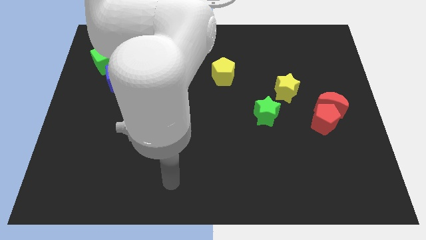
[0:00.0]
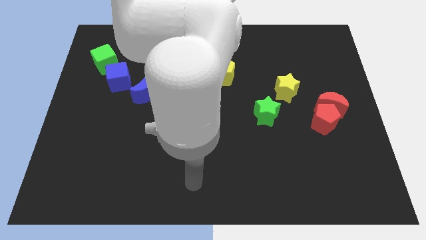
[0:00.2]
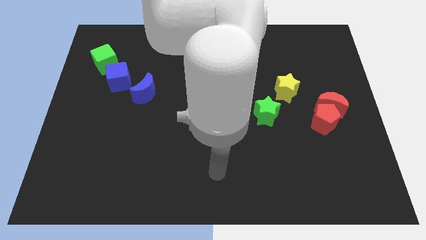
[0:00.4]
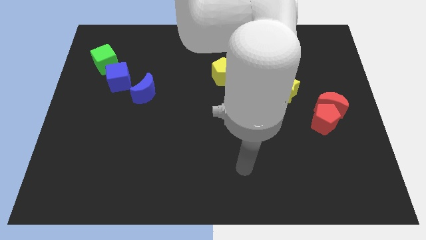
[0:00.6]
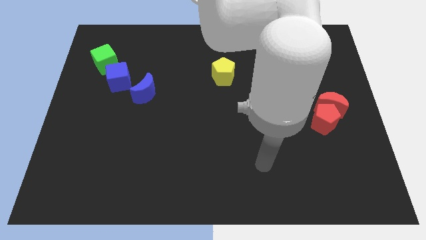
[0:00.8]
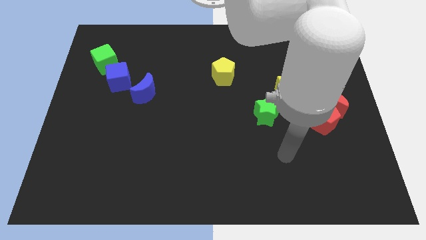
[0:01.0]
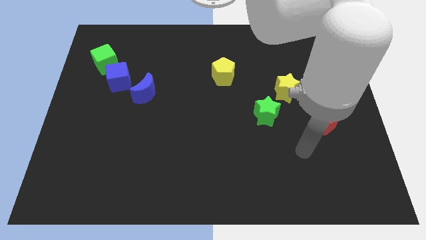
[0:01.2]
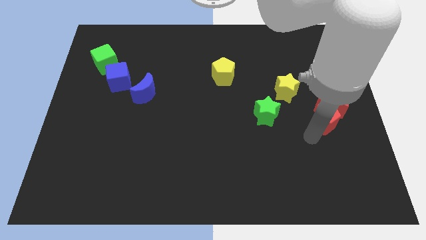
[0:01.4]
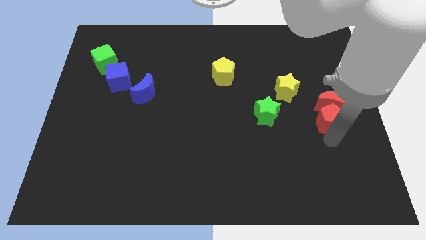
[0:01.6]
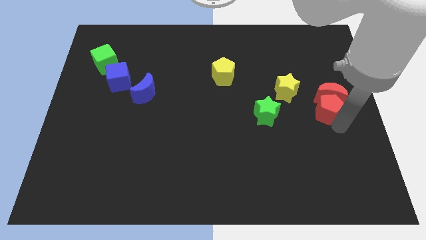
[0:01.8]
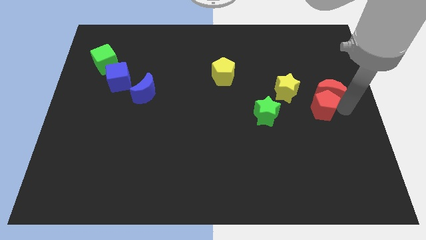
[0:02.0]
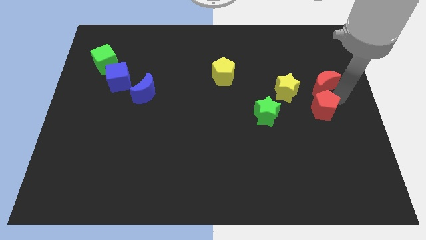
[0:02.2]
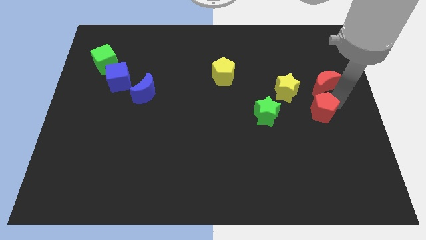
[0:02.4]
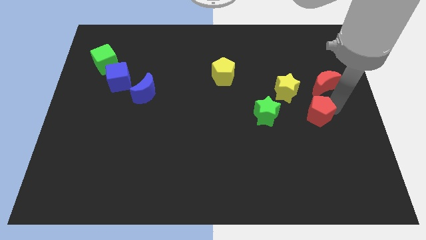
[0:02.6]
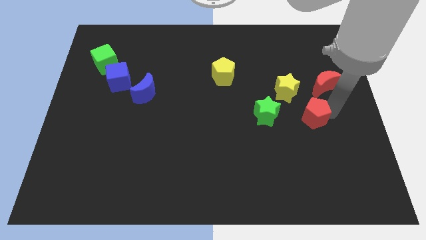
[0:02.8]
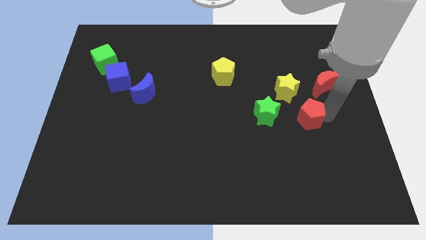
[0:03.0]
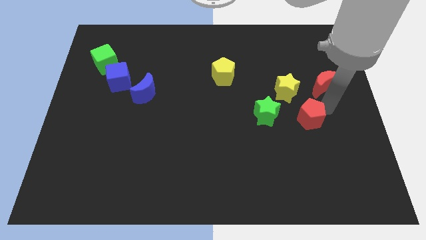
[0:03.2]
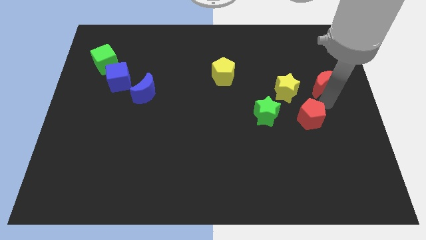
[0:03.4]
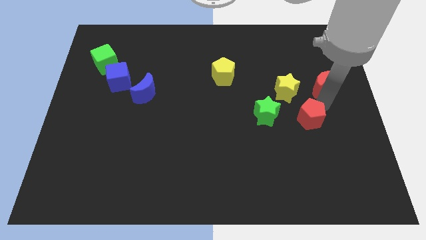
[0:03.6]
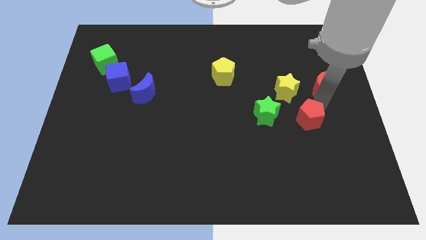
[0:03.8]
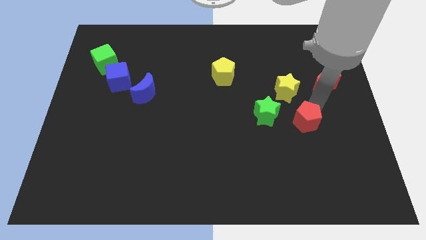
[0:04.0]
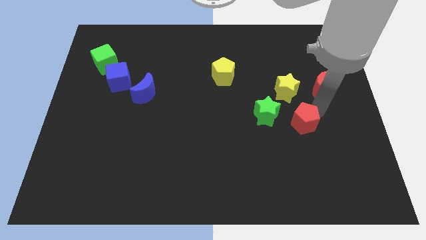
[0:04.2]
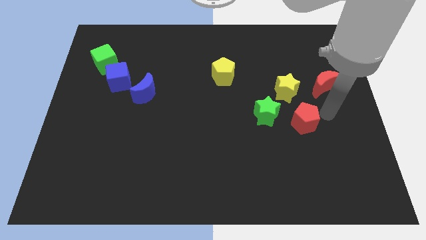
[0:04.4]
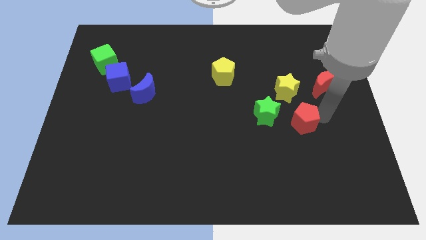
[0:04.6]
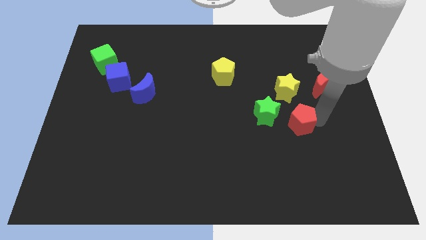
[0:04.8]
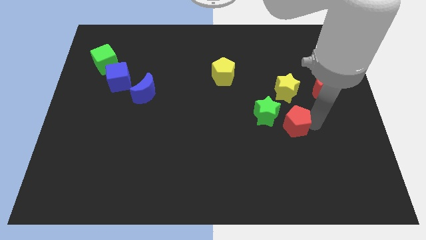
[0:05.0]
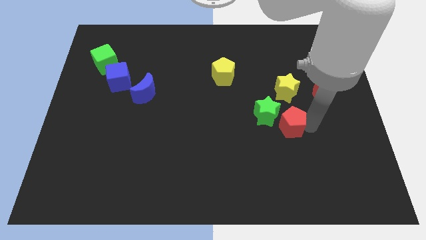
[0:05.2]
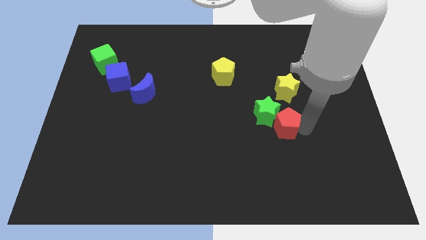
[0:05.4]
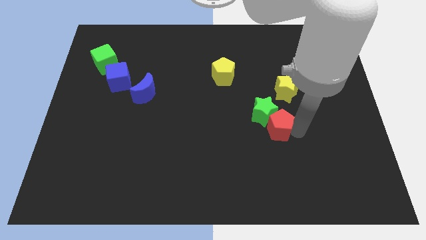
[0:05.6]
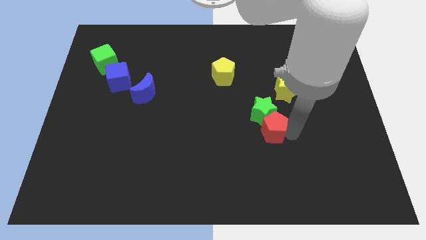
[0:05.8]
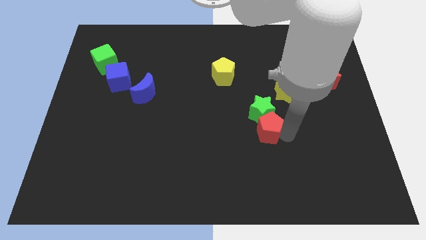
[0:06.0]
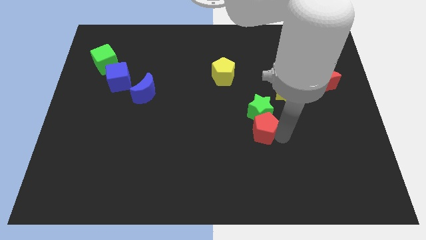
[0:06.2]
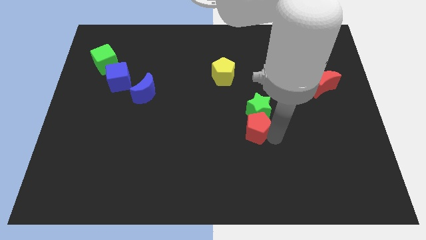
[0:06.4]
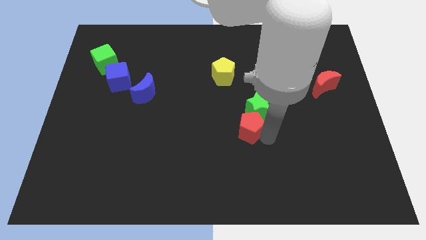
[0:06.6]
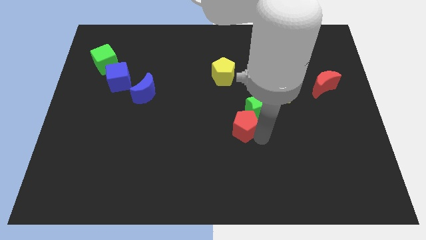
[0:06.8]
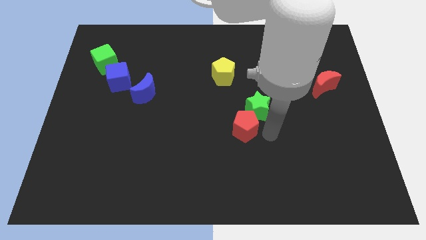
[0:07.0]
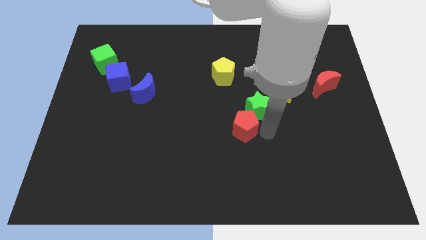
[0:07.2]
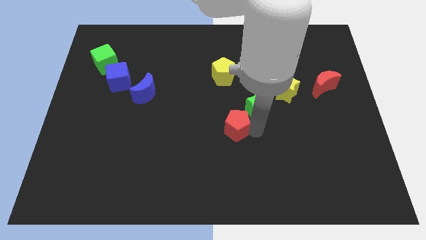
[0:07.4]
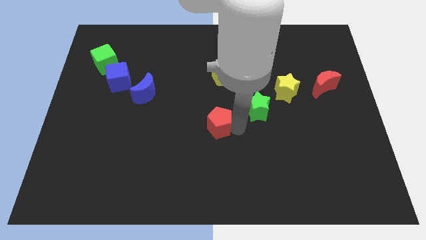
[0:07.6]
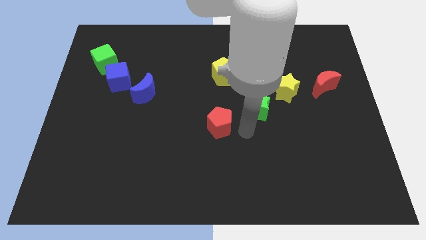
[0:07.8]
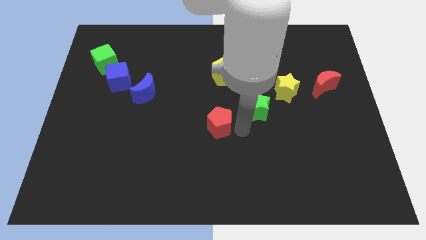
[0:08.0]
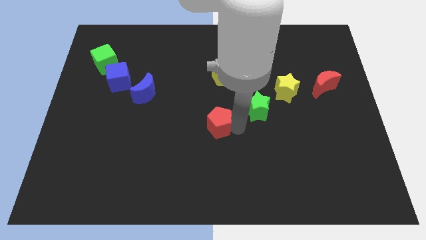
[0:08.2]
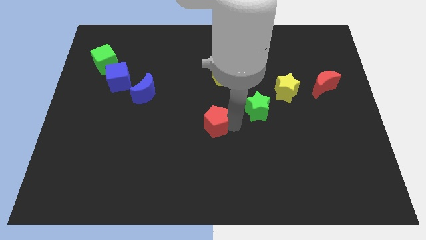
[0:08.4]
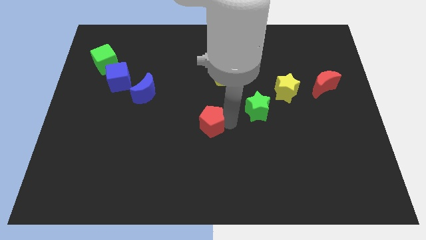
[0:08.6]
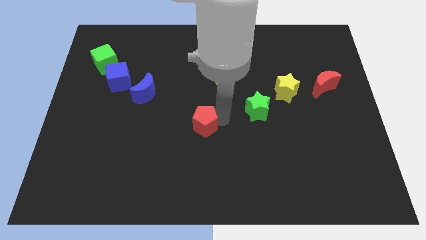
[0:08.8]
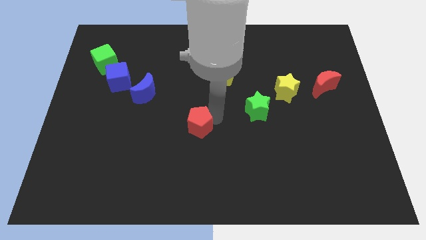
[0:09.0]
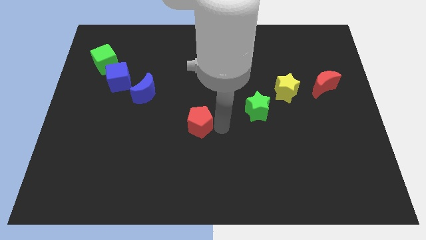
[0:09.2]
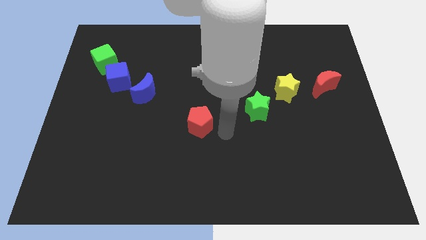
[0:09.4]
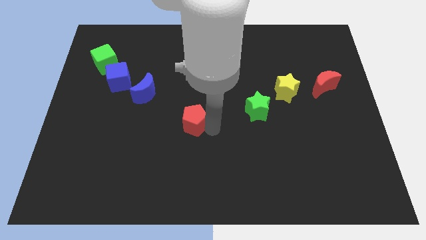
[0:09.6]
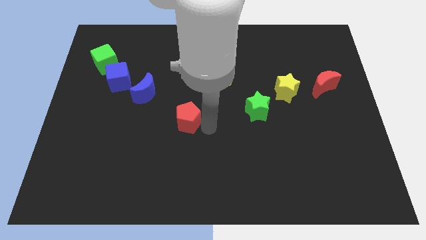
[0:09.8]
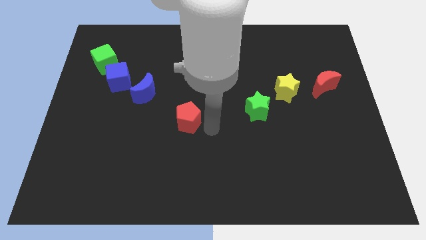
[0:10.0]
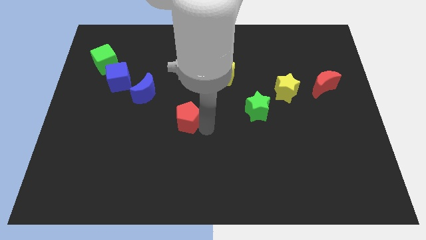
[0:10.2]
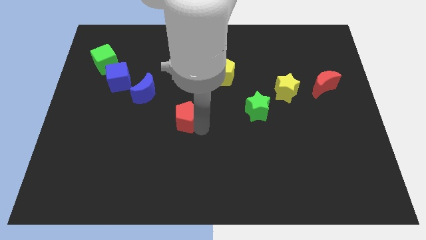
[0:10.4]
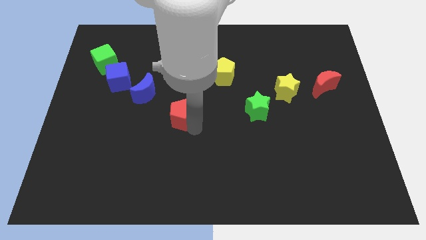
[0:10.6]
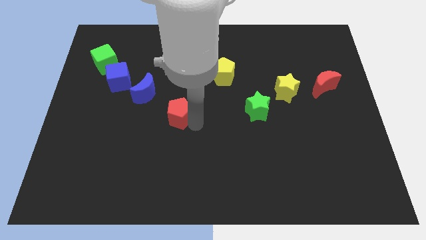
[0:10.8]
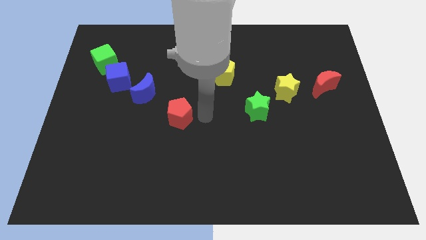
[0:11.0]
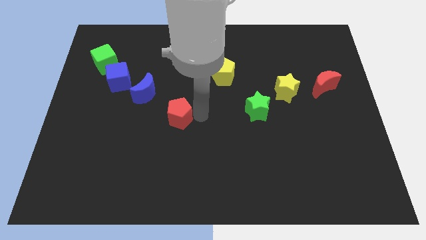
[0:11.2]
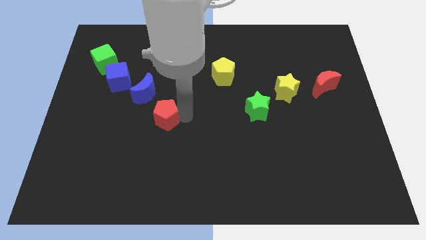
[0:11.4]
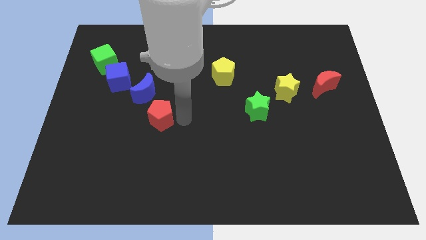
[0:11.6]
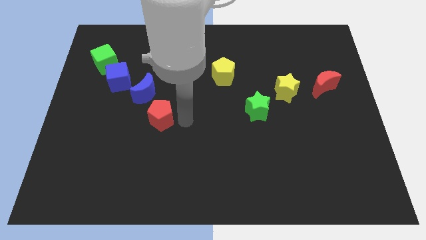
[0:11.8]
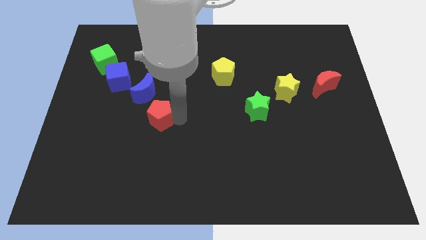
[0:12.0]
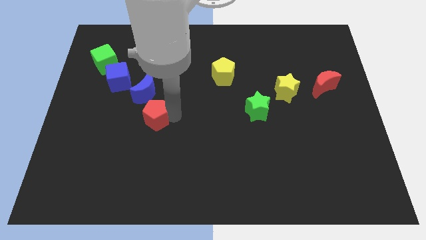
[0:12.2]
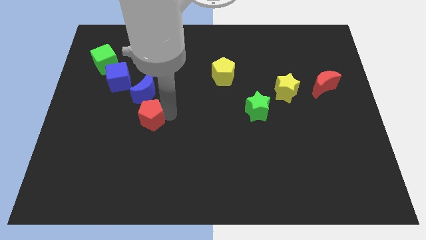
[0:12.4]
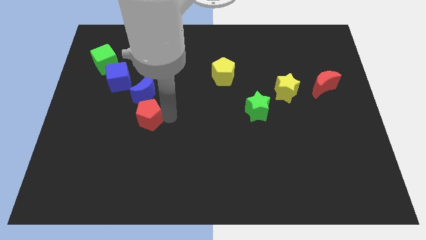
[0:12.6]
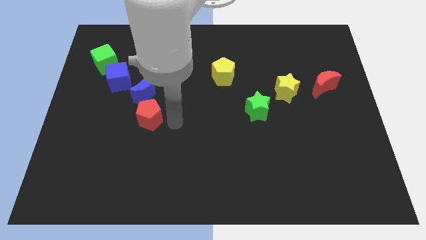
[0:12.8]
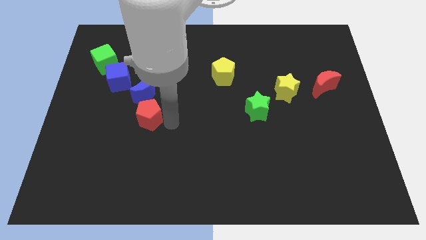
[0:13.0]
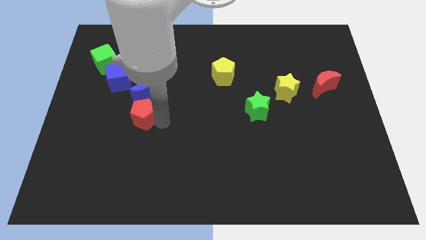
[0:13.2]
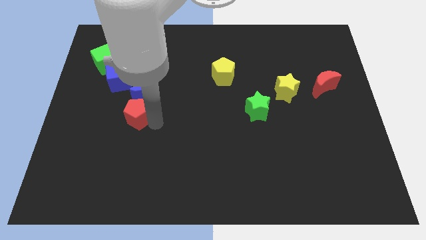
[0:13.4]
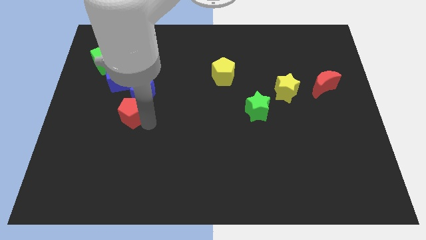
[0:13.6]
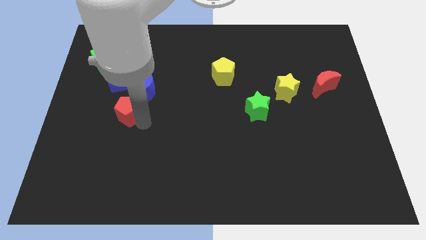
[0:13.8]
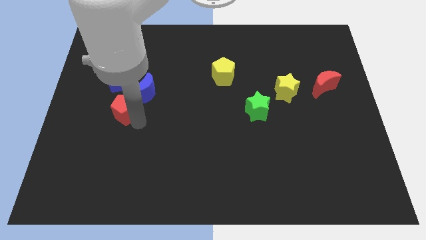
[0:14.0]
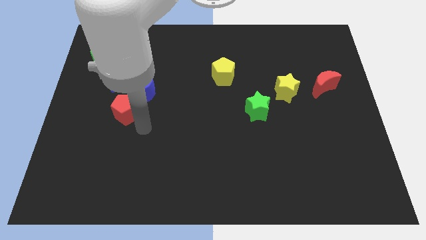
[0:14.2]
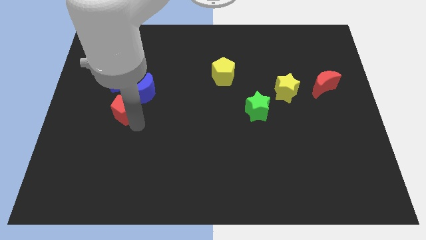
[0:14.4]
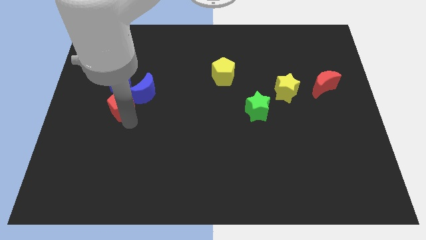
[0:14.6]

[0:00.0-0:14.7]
put the red pentagon left of the blue moon
